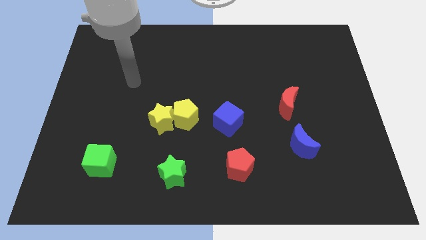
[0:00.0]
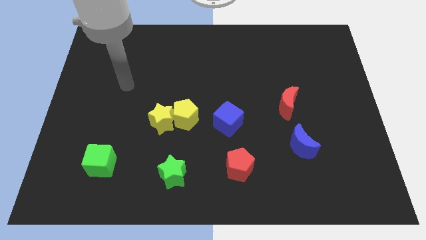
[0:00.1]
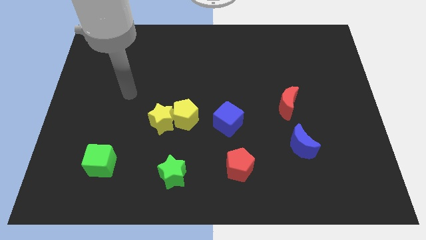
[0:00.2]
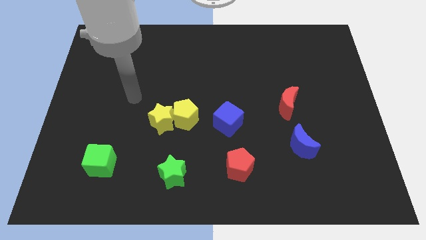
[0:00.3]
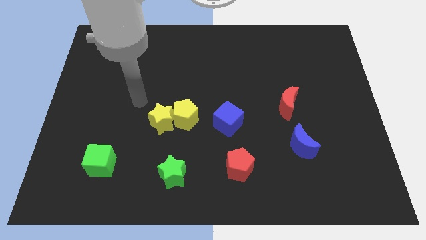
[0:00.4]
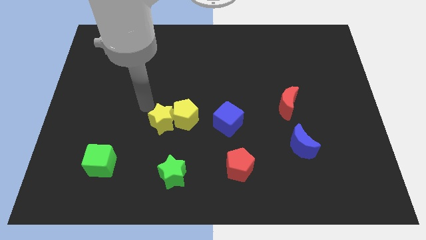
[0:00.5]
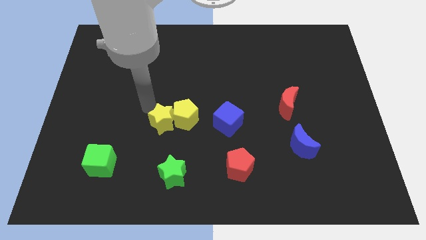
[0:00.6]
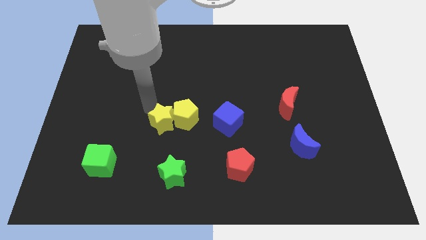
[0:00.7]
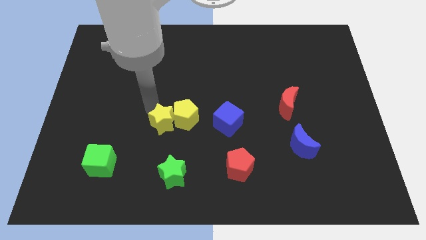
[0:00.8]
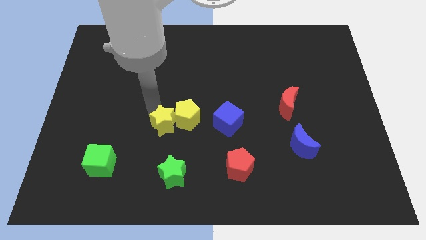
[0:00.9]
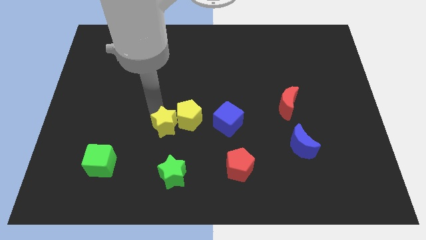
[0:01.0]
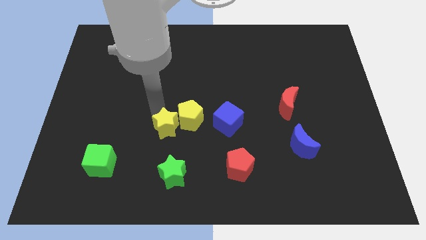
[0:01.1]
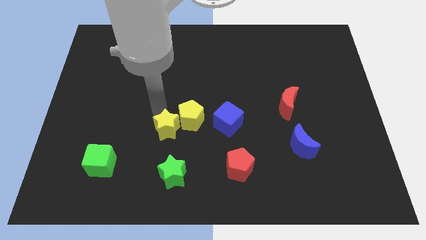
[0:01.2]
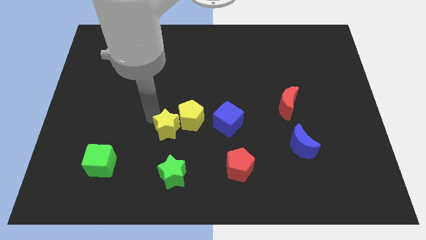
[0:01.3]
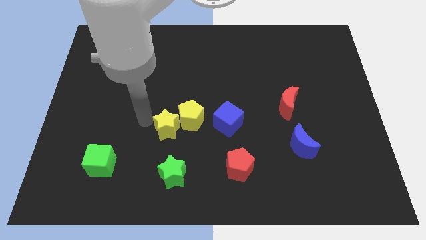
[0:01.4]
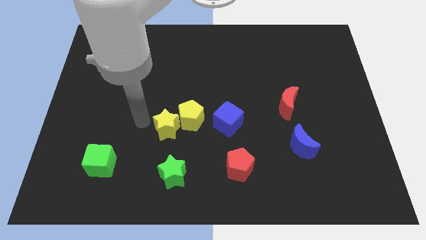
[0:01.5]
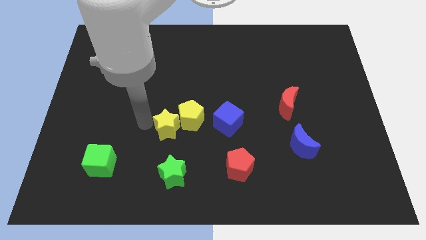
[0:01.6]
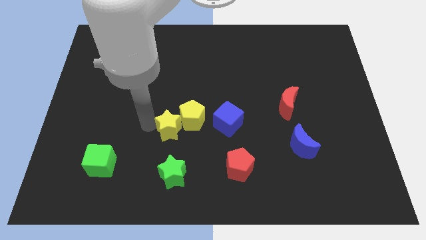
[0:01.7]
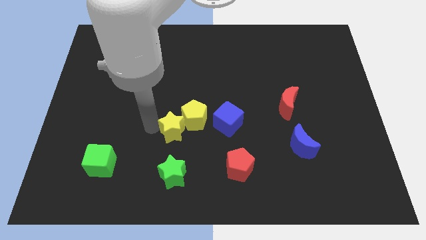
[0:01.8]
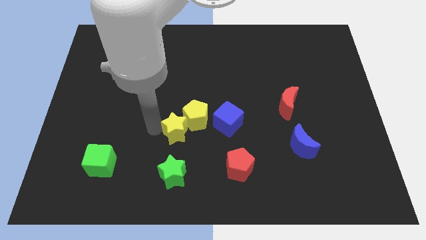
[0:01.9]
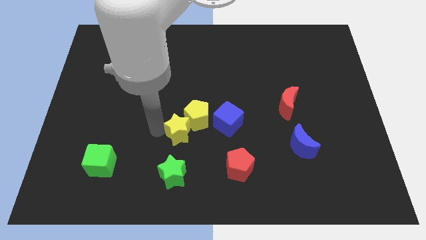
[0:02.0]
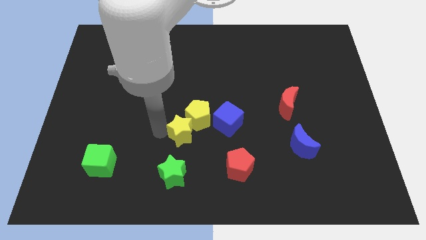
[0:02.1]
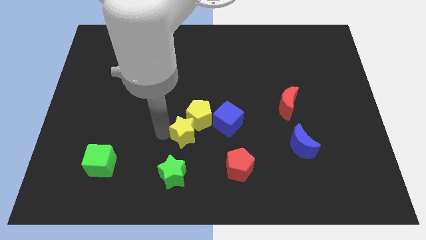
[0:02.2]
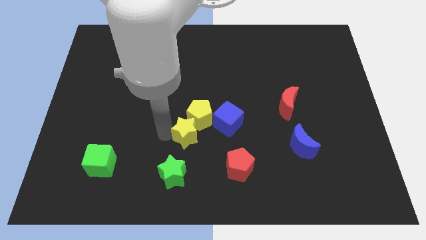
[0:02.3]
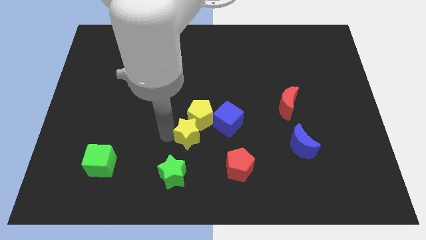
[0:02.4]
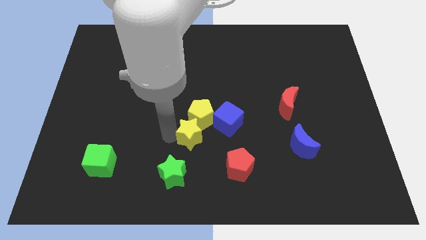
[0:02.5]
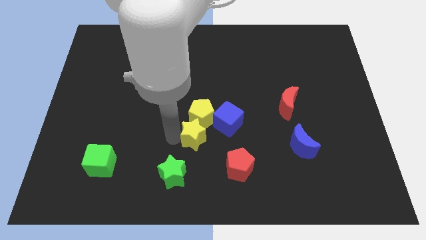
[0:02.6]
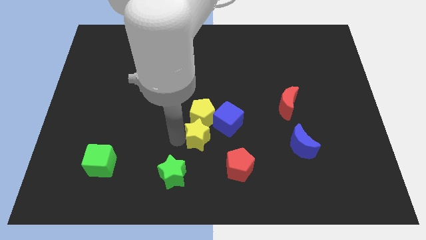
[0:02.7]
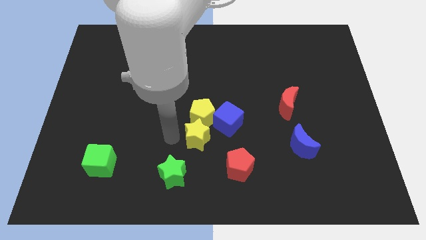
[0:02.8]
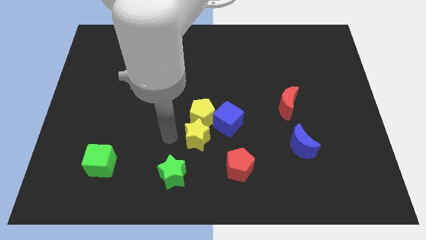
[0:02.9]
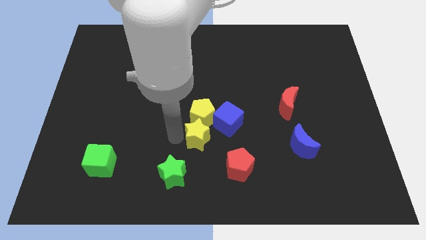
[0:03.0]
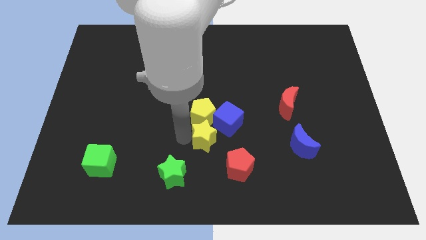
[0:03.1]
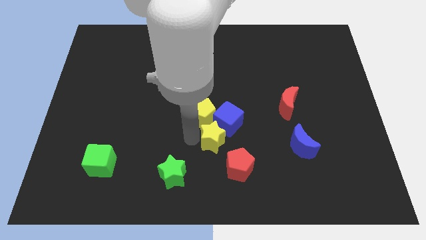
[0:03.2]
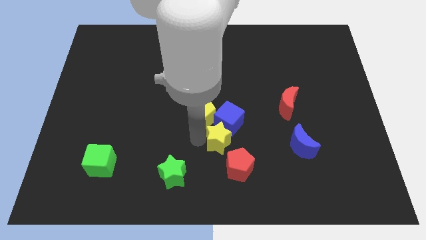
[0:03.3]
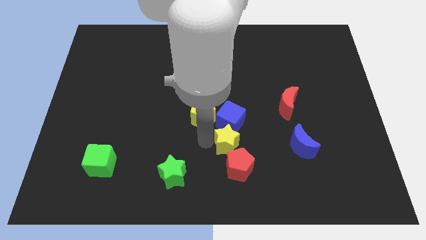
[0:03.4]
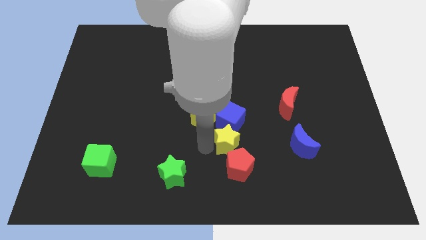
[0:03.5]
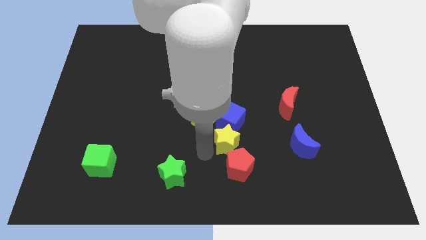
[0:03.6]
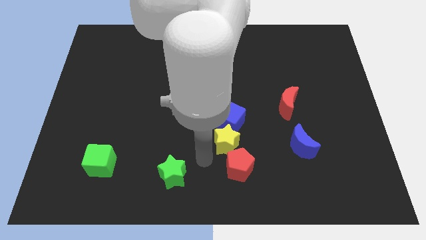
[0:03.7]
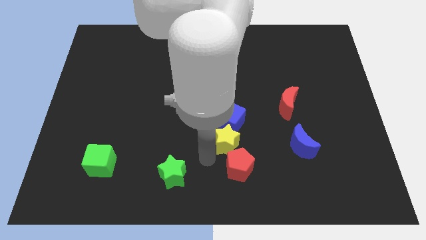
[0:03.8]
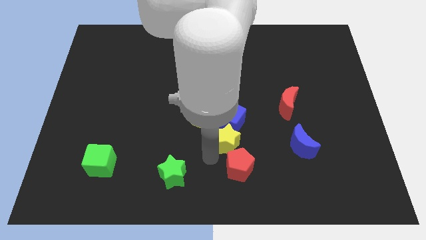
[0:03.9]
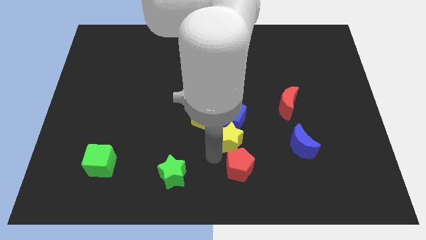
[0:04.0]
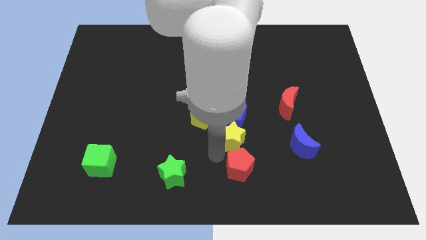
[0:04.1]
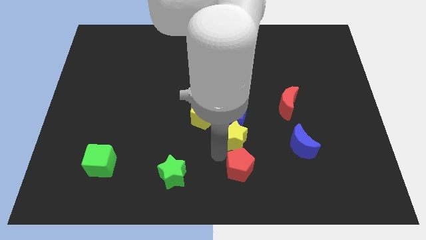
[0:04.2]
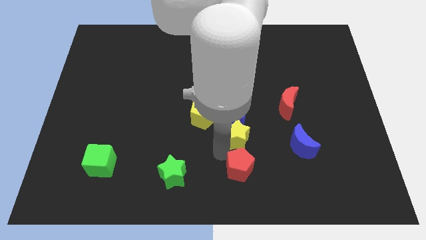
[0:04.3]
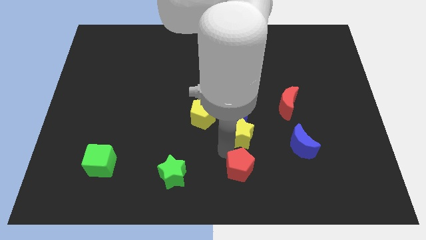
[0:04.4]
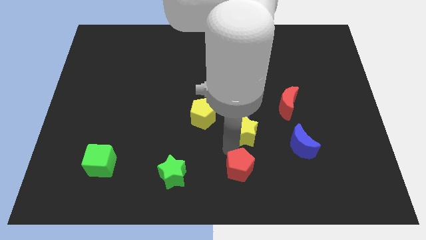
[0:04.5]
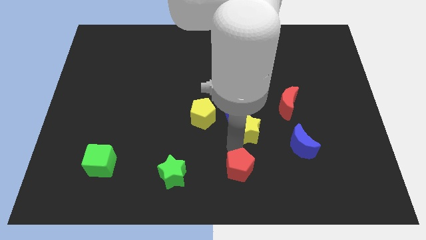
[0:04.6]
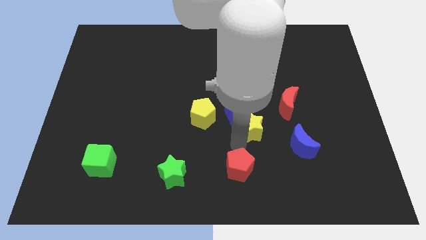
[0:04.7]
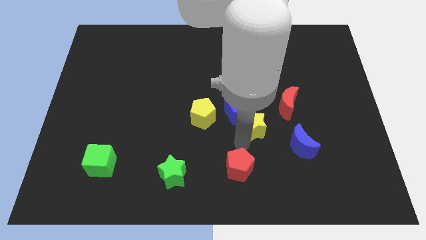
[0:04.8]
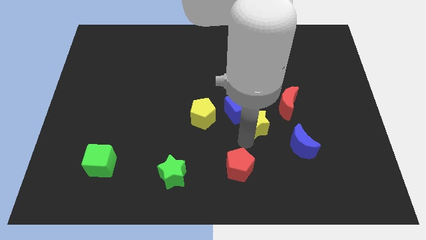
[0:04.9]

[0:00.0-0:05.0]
move the yellow star to the right side of the blue cube

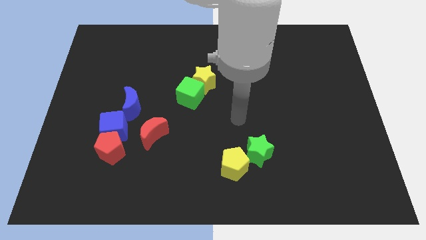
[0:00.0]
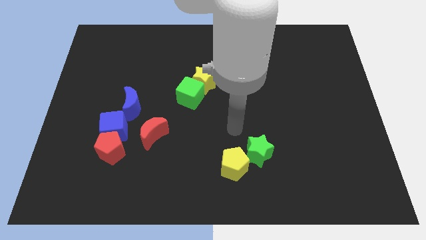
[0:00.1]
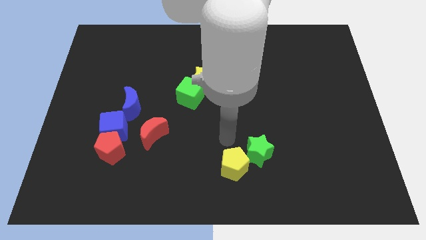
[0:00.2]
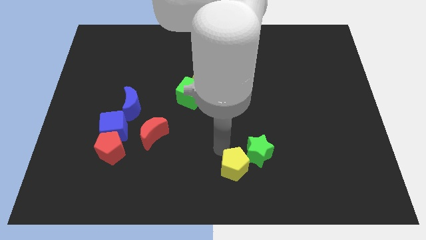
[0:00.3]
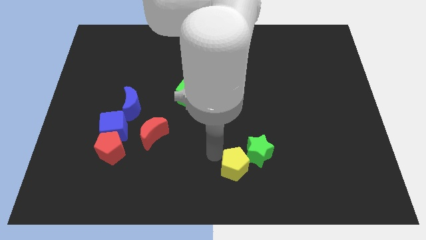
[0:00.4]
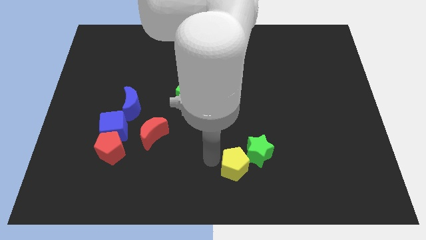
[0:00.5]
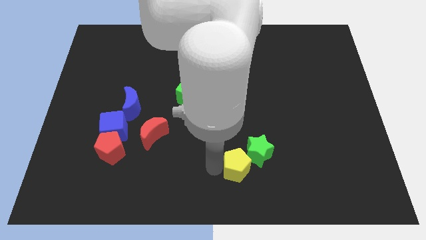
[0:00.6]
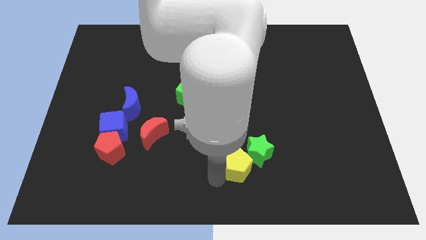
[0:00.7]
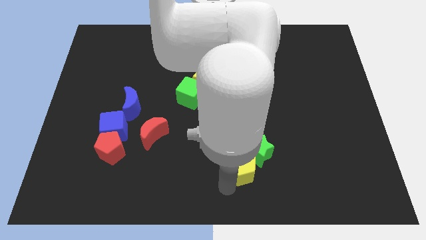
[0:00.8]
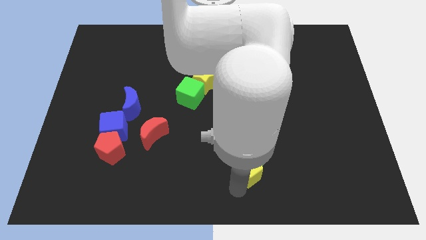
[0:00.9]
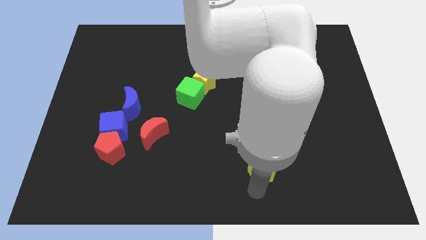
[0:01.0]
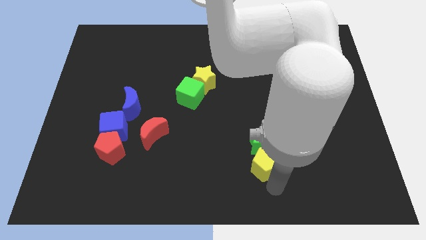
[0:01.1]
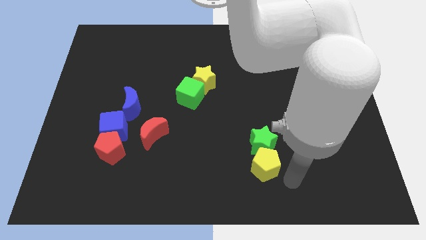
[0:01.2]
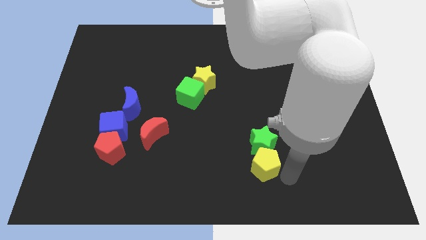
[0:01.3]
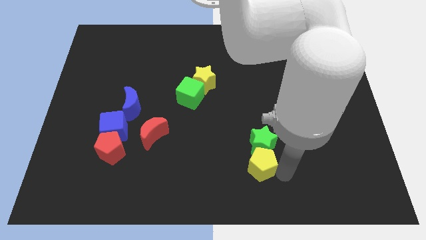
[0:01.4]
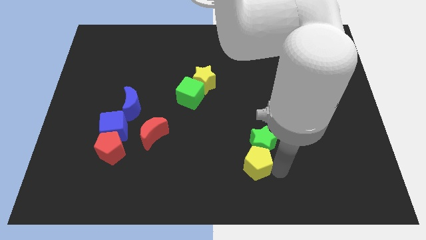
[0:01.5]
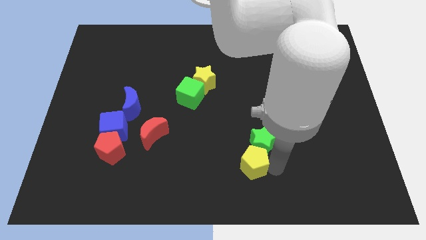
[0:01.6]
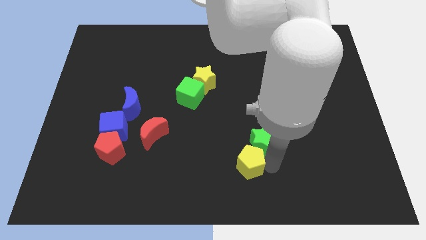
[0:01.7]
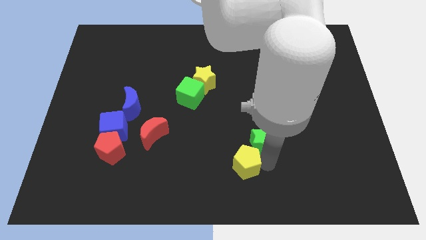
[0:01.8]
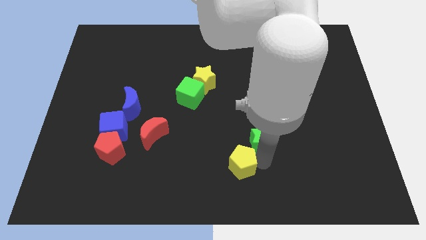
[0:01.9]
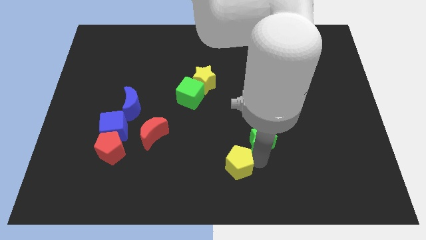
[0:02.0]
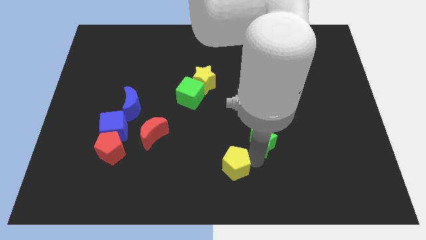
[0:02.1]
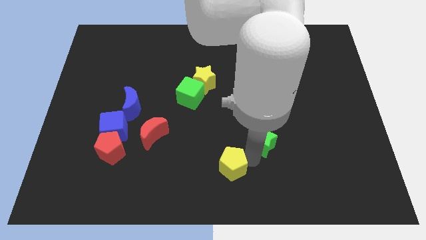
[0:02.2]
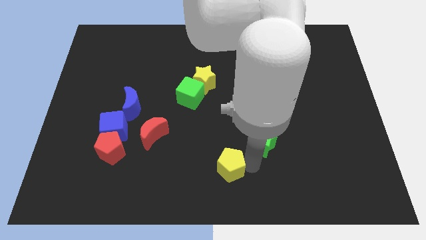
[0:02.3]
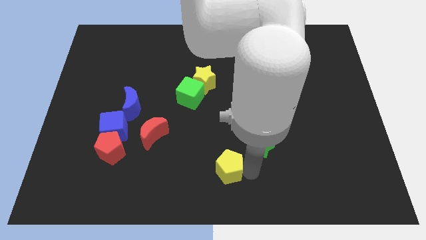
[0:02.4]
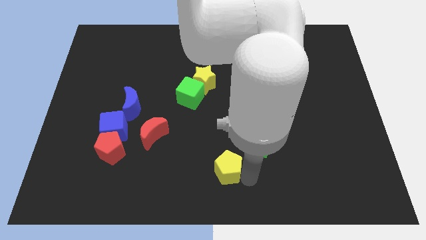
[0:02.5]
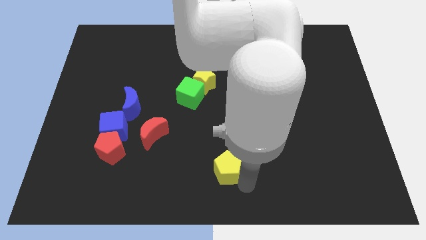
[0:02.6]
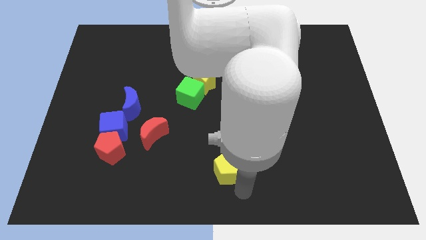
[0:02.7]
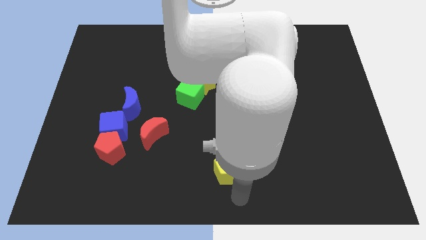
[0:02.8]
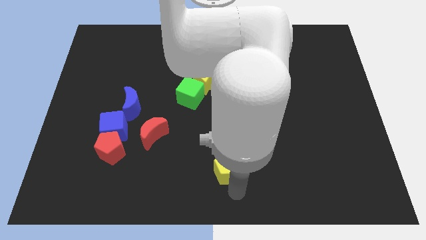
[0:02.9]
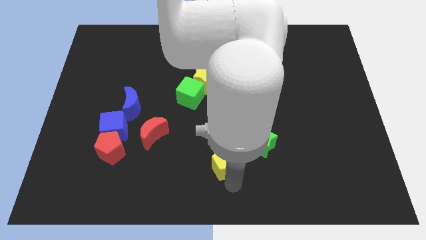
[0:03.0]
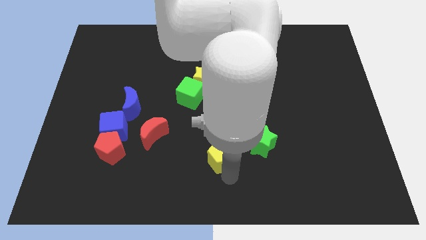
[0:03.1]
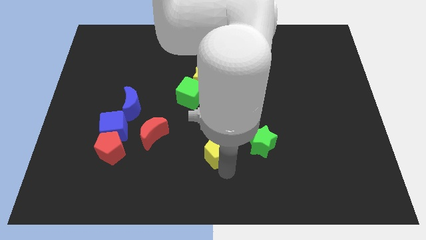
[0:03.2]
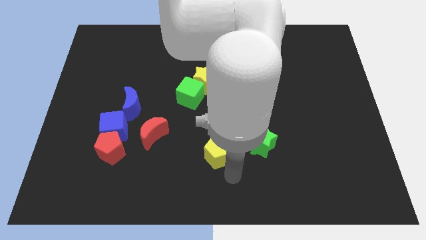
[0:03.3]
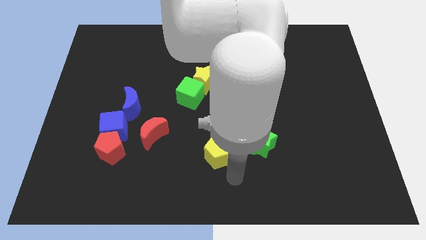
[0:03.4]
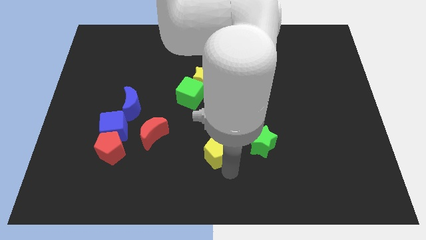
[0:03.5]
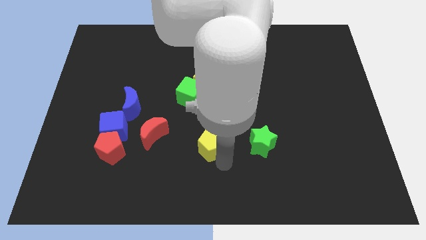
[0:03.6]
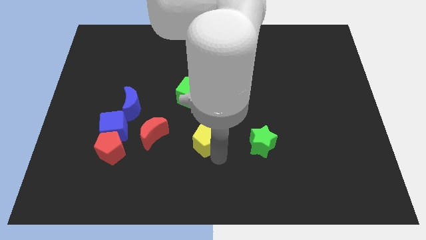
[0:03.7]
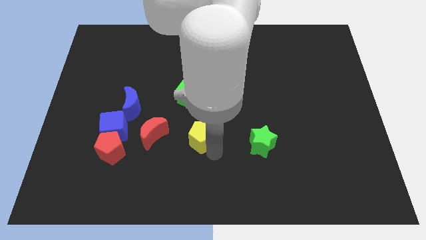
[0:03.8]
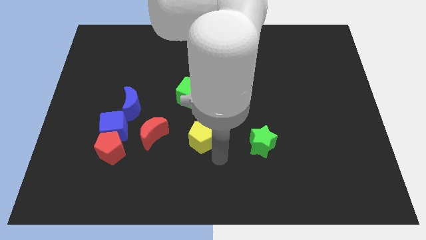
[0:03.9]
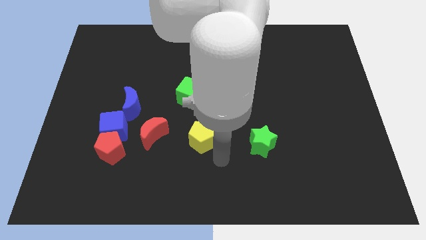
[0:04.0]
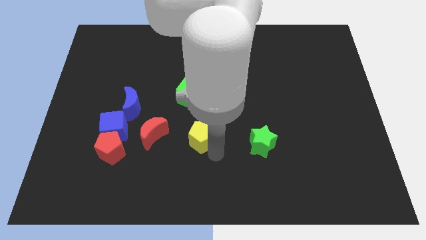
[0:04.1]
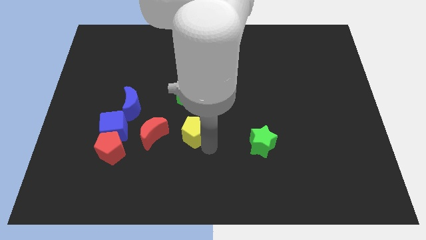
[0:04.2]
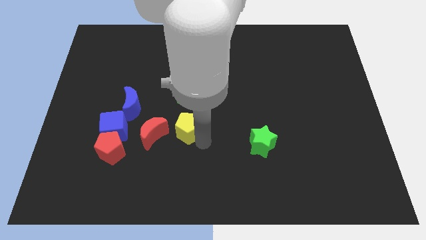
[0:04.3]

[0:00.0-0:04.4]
push the yellow pentagon to the top right of the red moon
